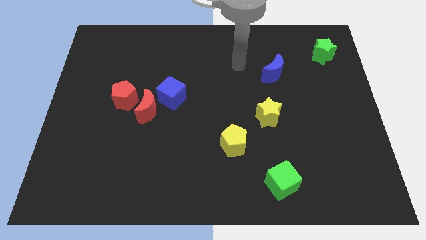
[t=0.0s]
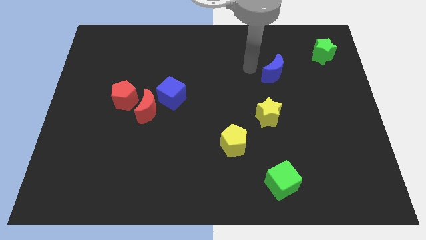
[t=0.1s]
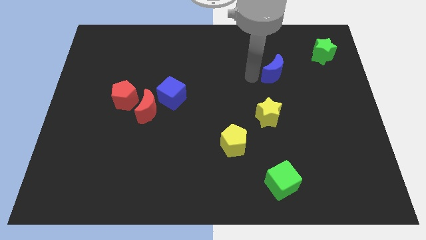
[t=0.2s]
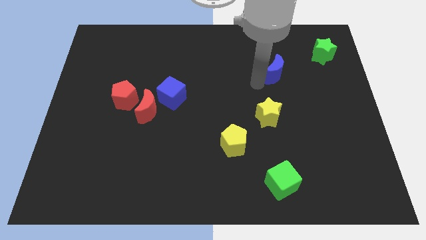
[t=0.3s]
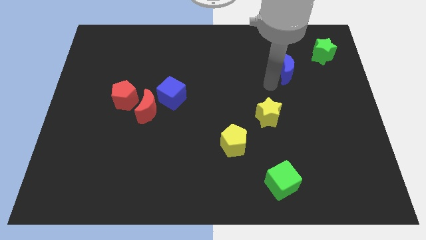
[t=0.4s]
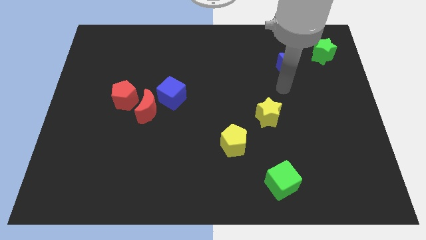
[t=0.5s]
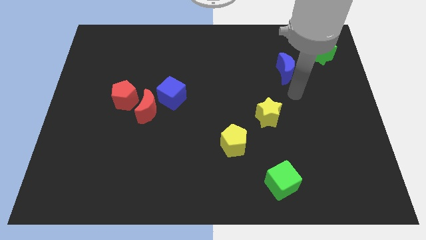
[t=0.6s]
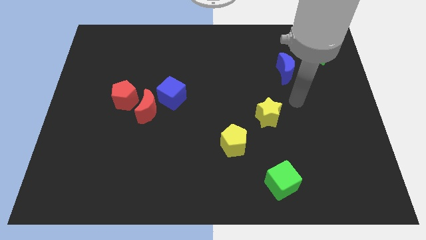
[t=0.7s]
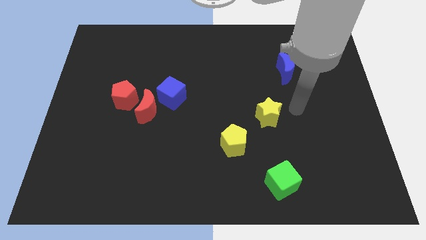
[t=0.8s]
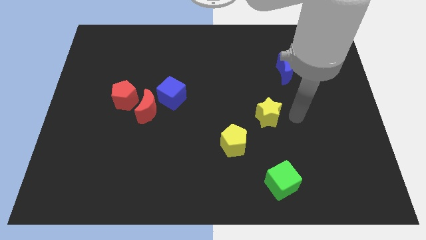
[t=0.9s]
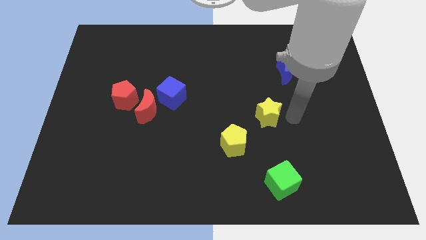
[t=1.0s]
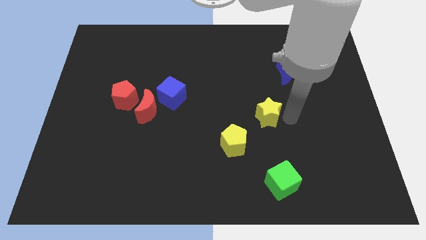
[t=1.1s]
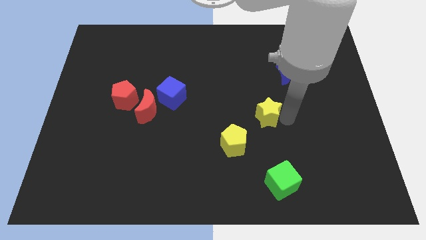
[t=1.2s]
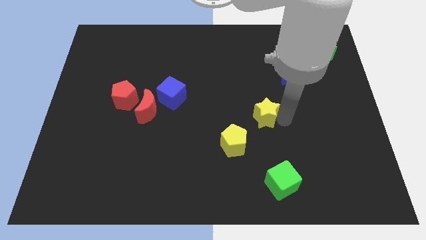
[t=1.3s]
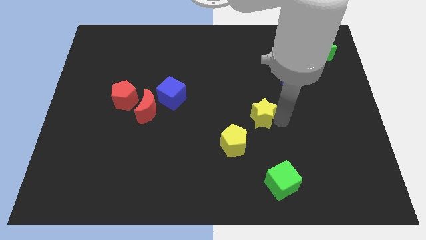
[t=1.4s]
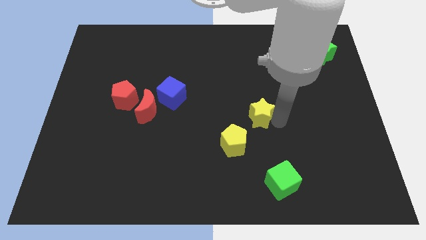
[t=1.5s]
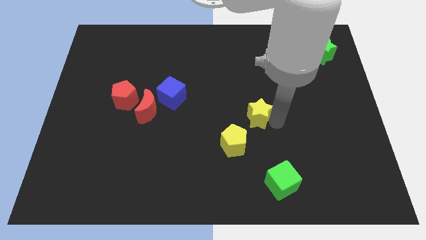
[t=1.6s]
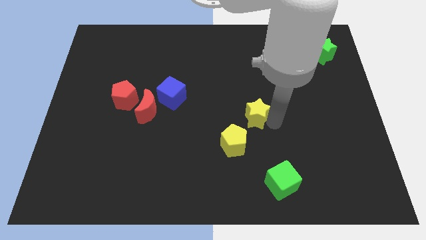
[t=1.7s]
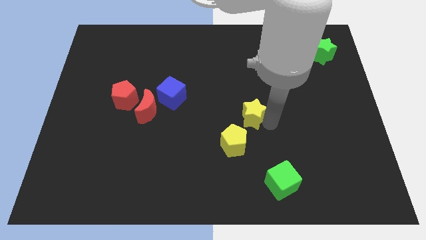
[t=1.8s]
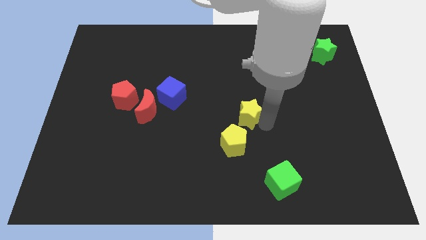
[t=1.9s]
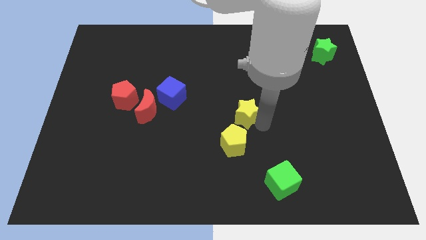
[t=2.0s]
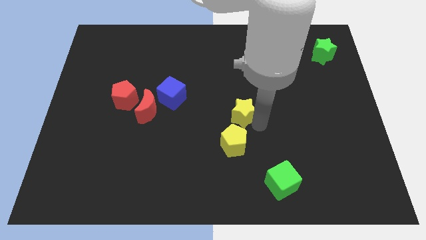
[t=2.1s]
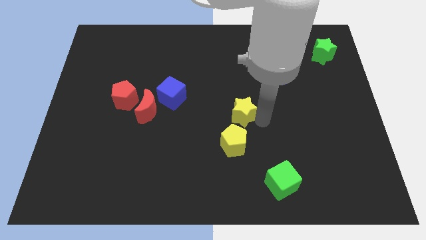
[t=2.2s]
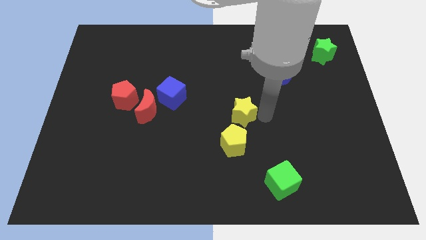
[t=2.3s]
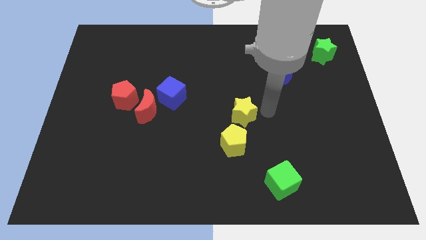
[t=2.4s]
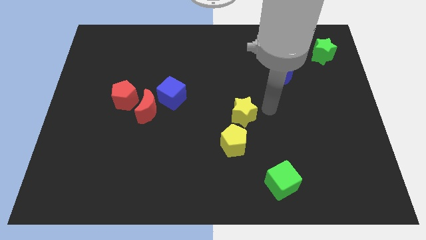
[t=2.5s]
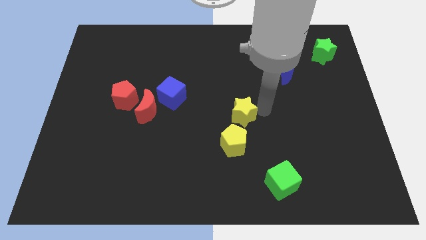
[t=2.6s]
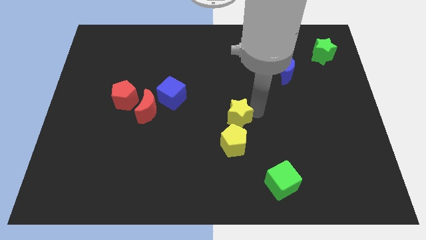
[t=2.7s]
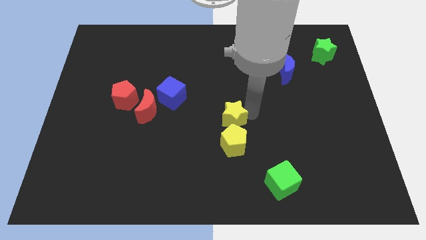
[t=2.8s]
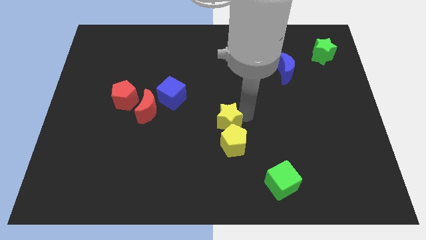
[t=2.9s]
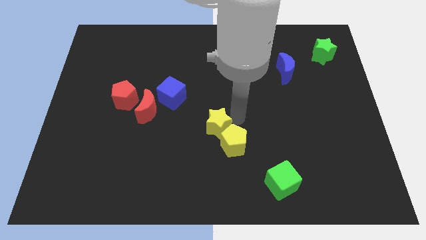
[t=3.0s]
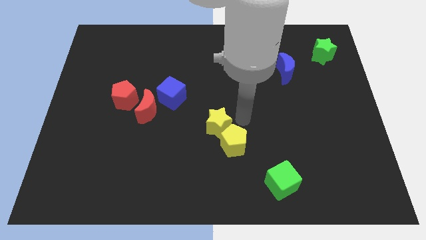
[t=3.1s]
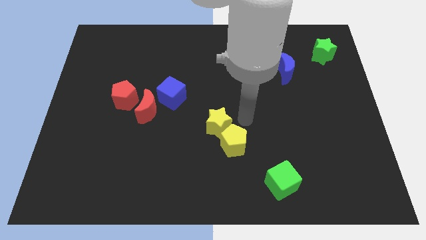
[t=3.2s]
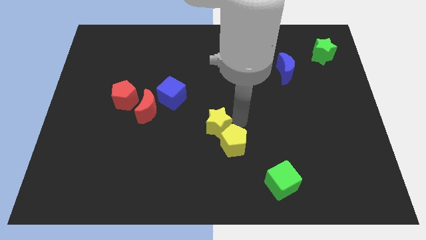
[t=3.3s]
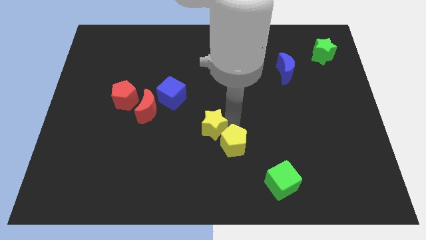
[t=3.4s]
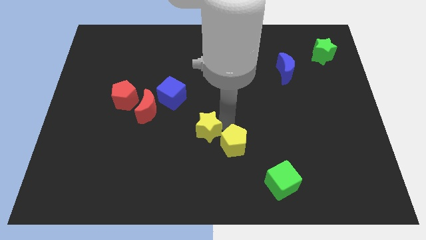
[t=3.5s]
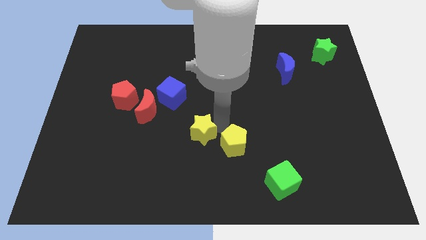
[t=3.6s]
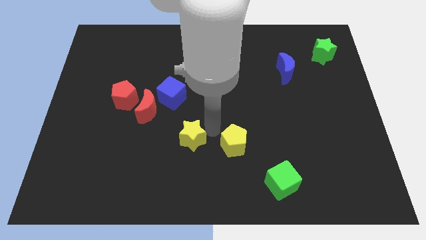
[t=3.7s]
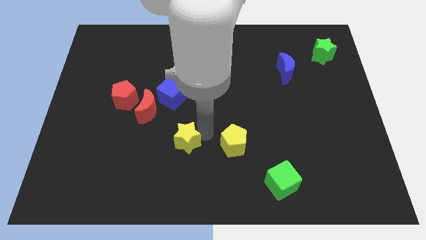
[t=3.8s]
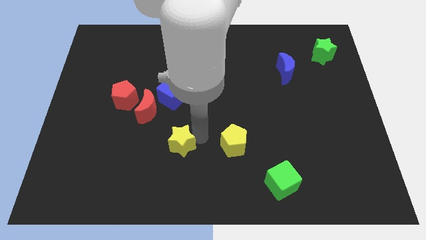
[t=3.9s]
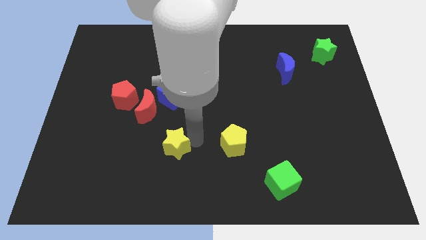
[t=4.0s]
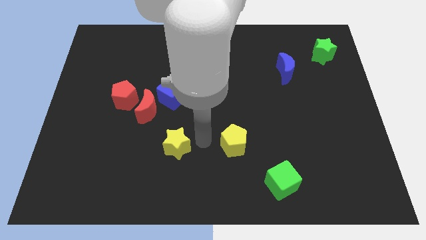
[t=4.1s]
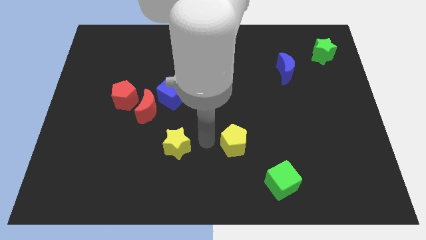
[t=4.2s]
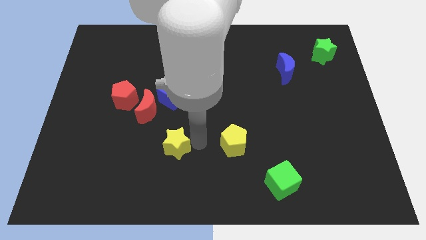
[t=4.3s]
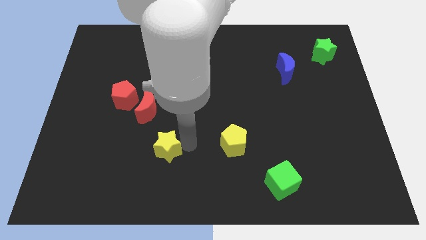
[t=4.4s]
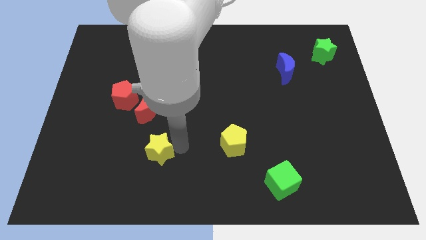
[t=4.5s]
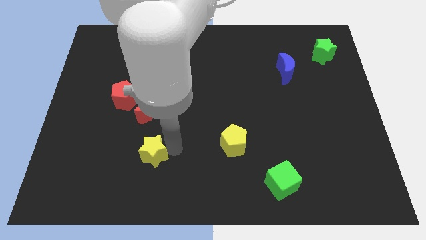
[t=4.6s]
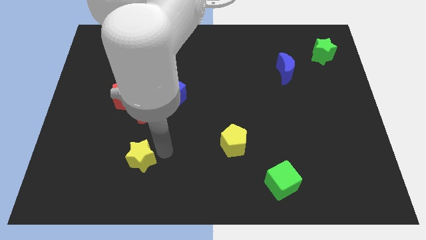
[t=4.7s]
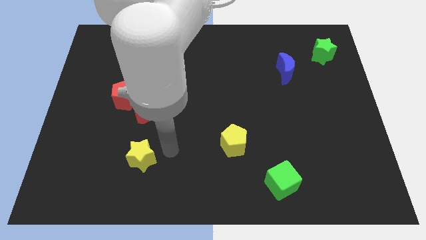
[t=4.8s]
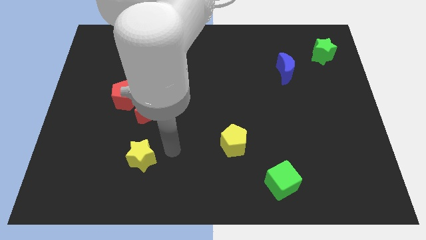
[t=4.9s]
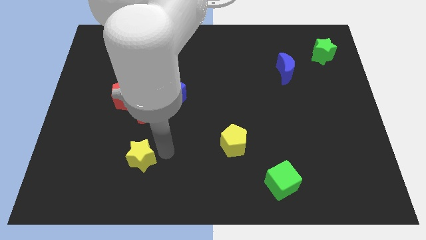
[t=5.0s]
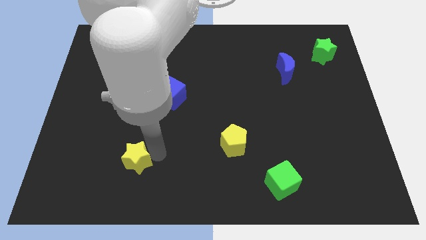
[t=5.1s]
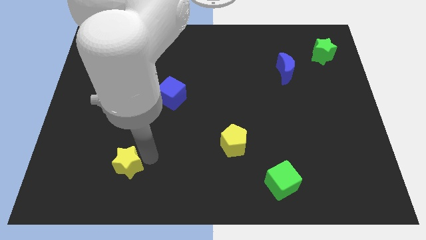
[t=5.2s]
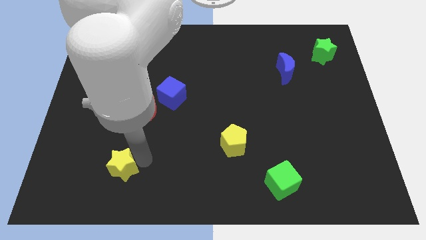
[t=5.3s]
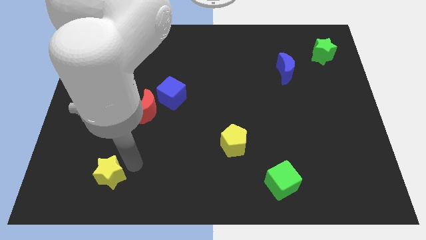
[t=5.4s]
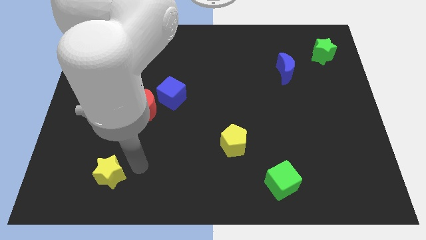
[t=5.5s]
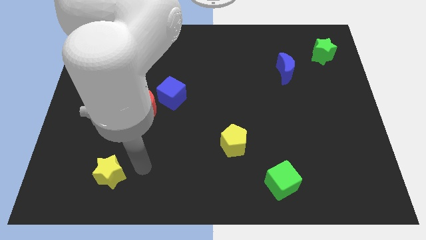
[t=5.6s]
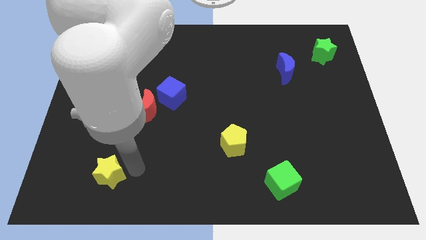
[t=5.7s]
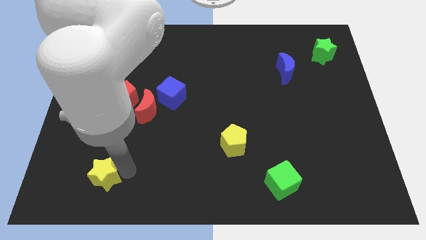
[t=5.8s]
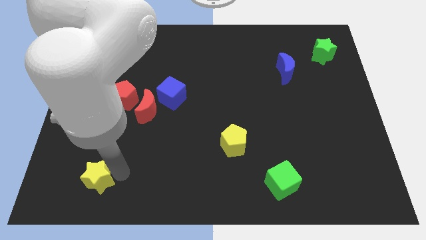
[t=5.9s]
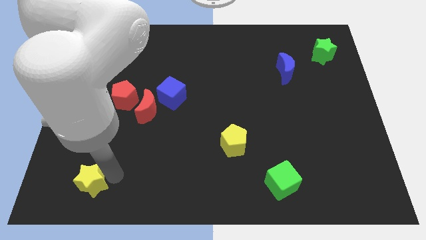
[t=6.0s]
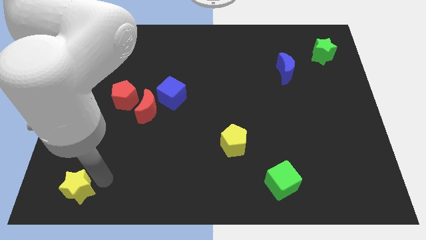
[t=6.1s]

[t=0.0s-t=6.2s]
push the yellow star to the bottom left of the board
